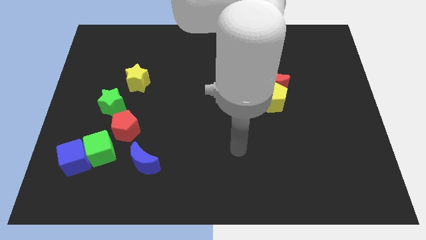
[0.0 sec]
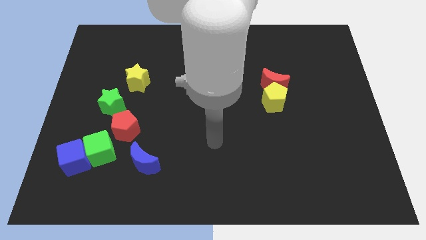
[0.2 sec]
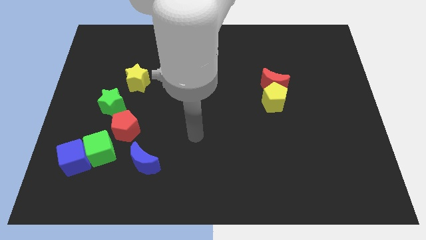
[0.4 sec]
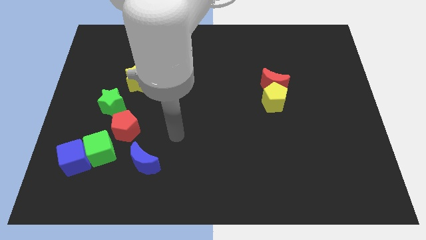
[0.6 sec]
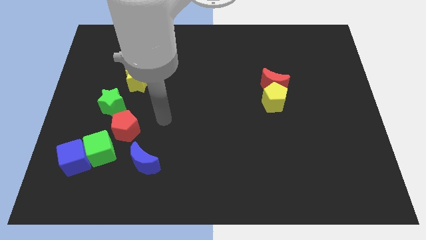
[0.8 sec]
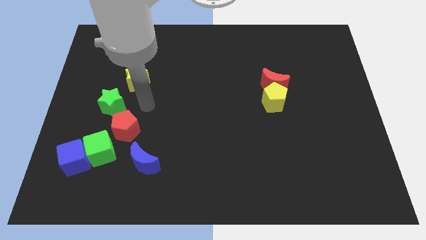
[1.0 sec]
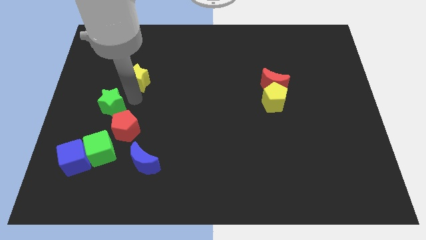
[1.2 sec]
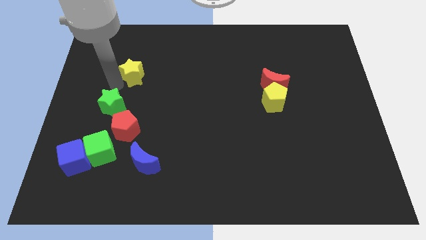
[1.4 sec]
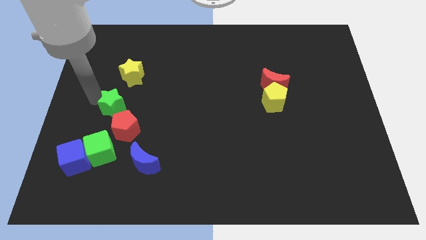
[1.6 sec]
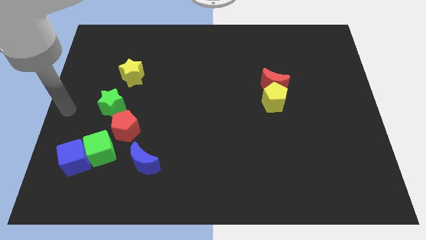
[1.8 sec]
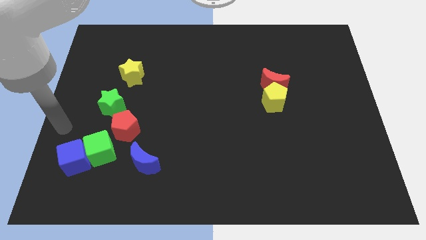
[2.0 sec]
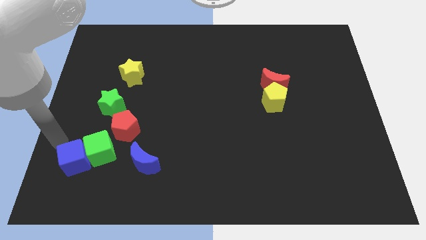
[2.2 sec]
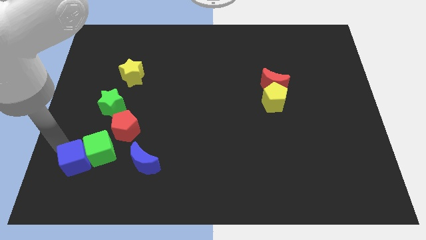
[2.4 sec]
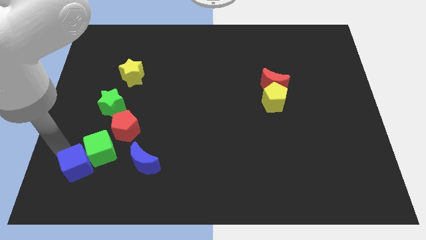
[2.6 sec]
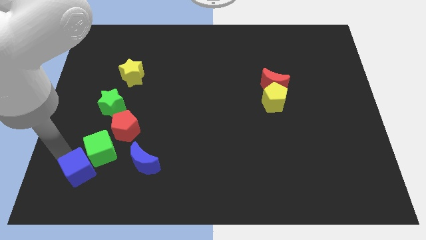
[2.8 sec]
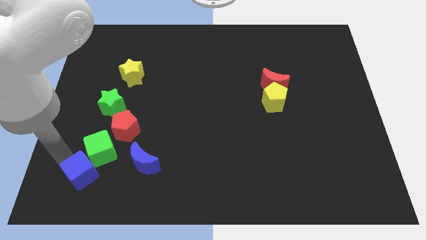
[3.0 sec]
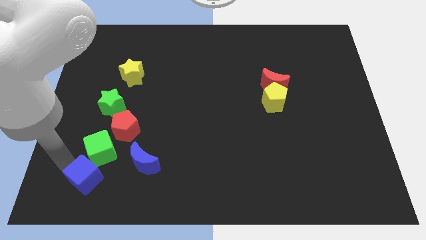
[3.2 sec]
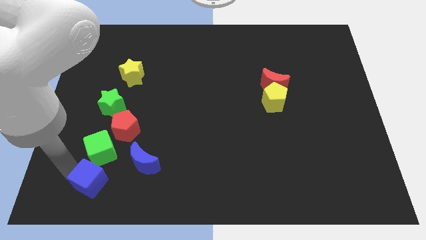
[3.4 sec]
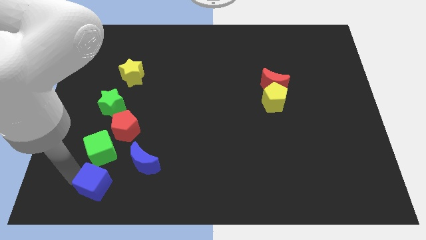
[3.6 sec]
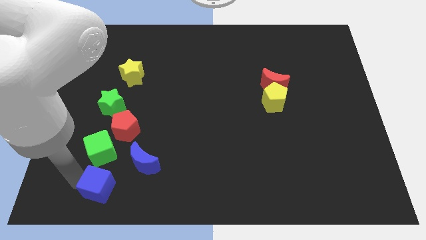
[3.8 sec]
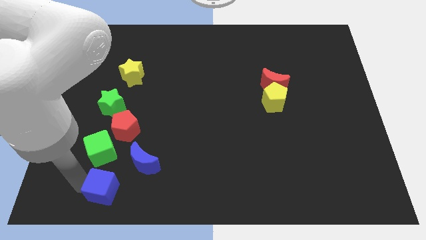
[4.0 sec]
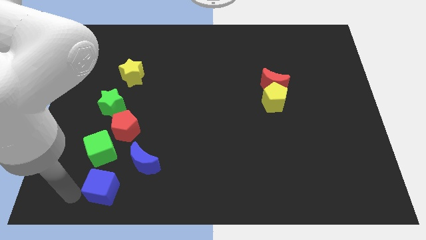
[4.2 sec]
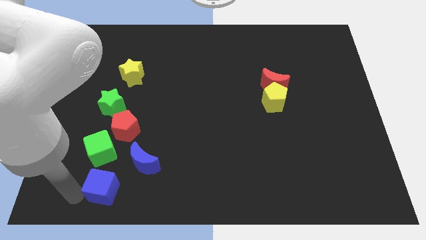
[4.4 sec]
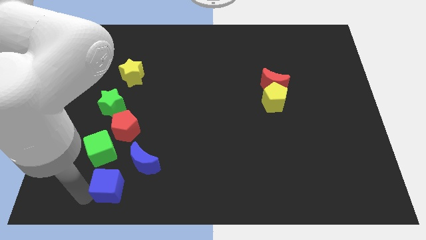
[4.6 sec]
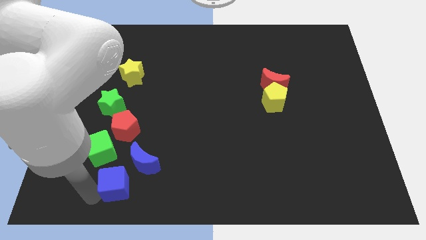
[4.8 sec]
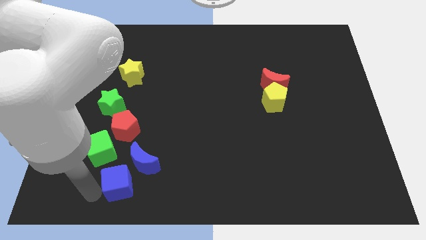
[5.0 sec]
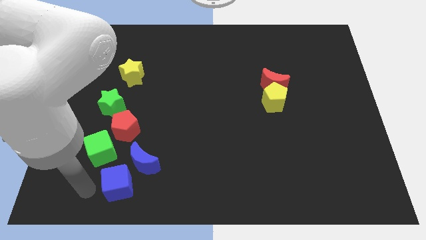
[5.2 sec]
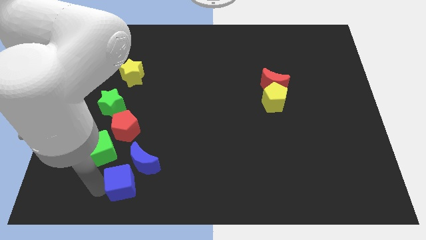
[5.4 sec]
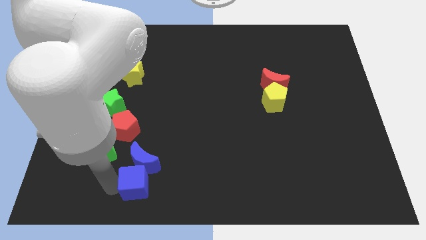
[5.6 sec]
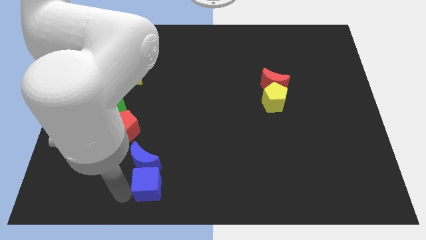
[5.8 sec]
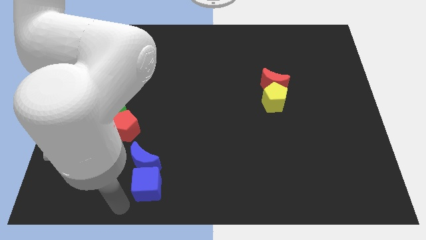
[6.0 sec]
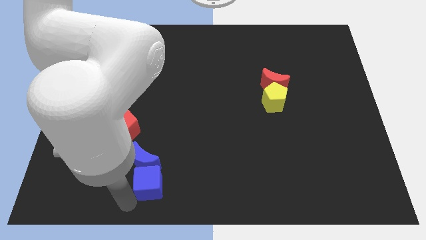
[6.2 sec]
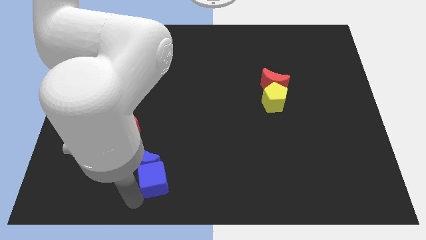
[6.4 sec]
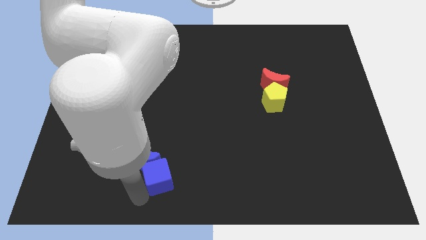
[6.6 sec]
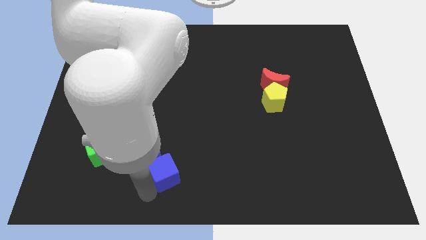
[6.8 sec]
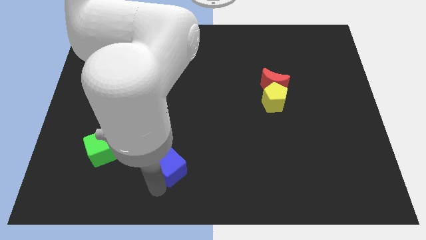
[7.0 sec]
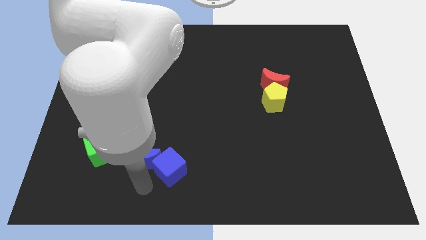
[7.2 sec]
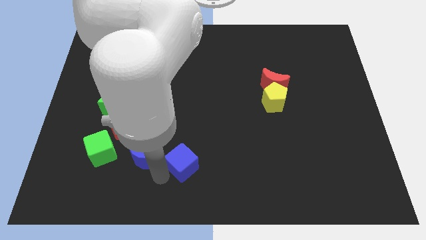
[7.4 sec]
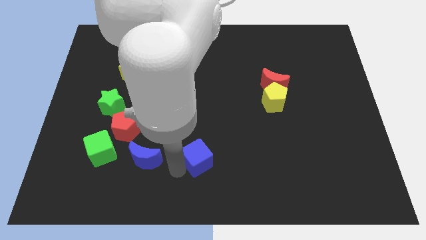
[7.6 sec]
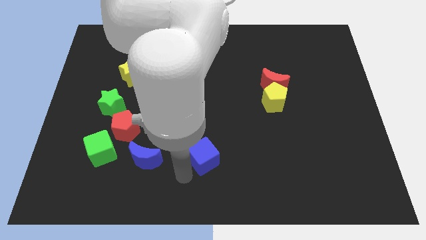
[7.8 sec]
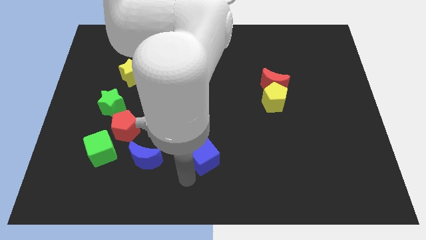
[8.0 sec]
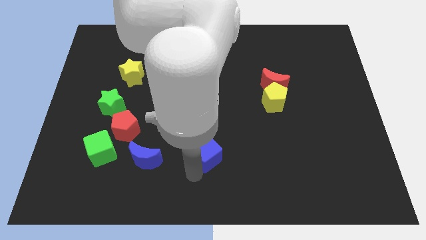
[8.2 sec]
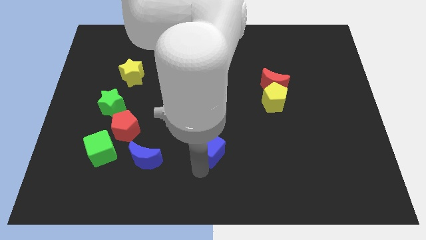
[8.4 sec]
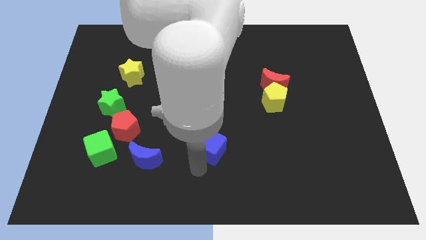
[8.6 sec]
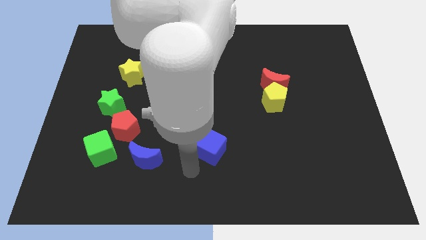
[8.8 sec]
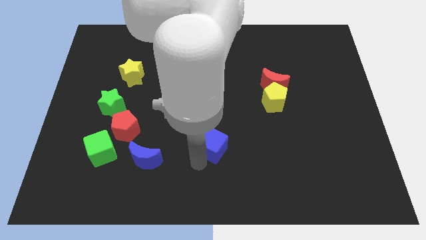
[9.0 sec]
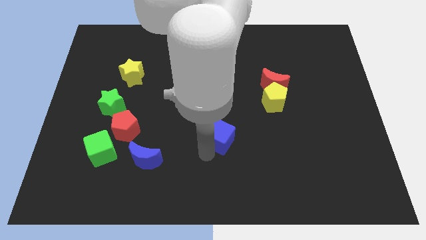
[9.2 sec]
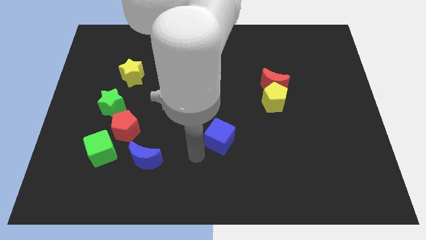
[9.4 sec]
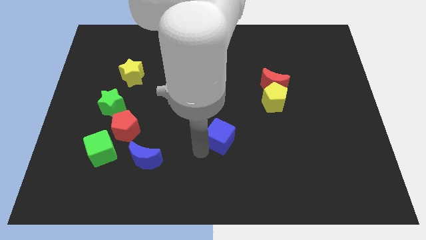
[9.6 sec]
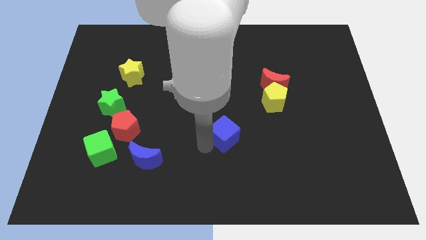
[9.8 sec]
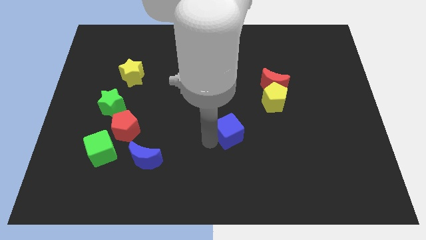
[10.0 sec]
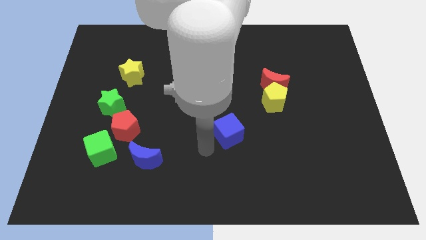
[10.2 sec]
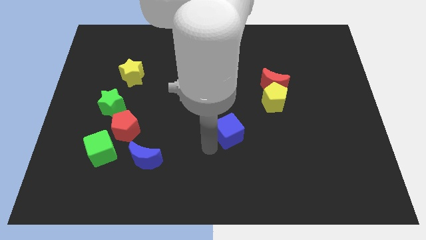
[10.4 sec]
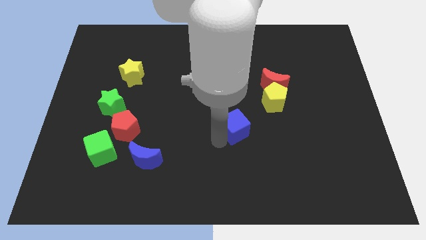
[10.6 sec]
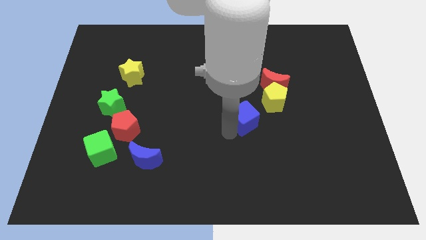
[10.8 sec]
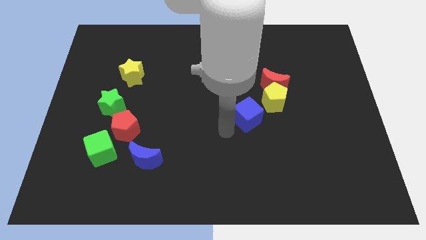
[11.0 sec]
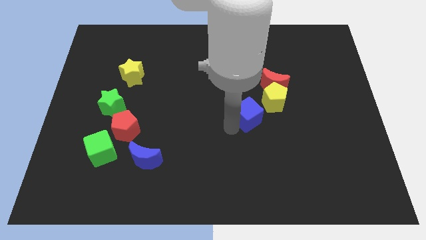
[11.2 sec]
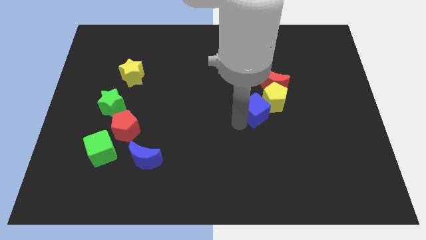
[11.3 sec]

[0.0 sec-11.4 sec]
move the blue cube close to the yellow pentagon

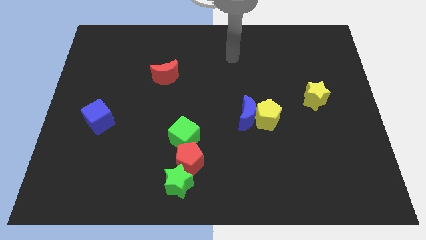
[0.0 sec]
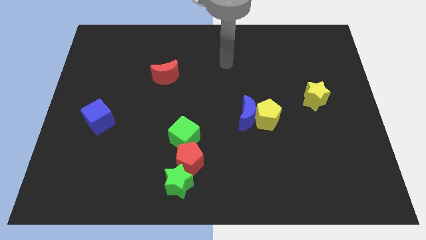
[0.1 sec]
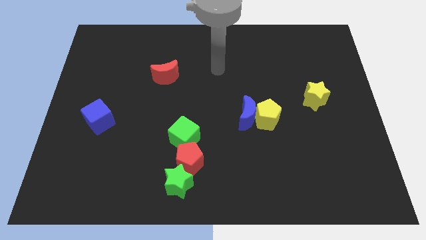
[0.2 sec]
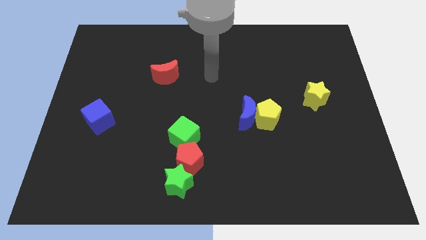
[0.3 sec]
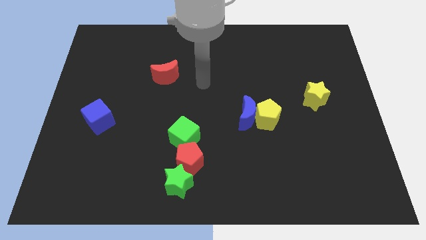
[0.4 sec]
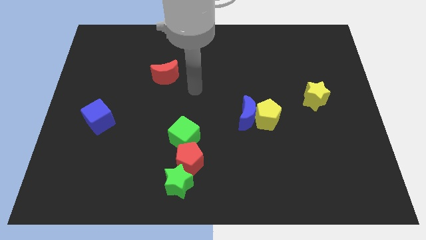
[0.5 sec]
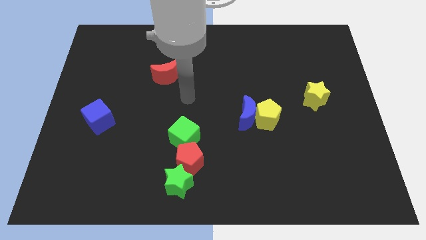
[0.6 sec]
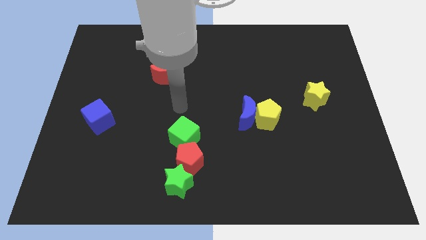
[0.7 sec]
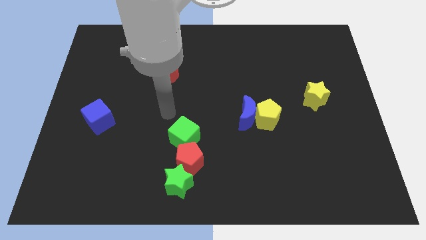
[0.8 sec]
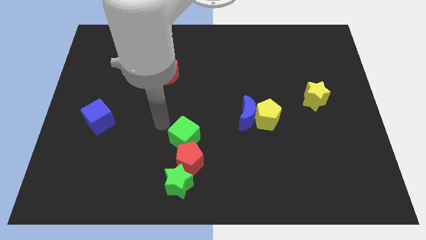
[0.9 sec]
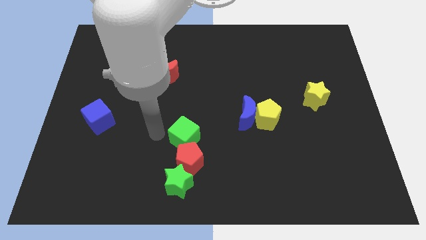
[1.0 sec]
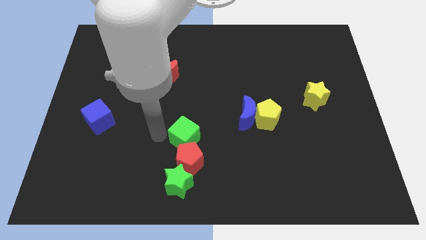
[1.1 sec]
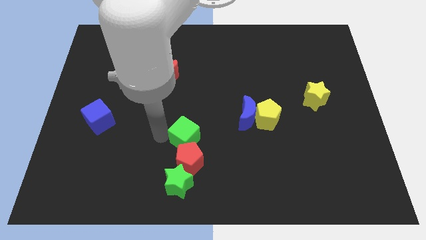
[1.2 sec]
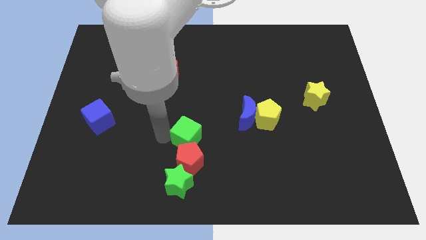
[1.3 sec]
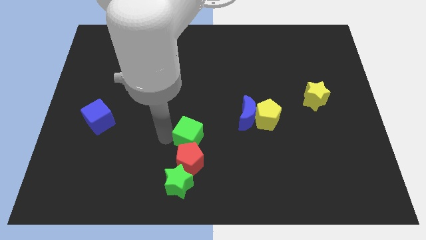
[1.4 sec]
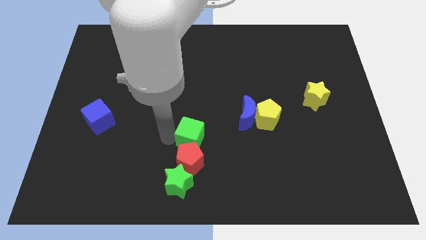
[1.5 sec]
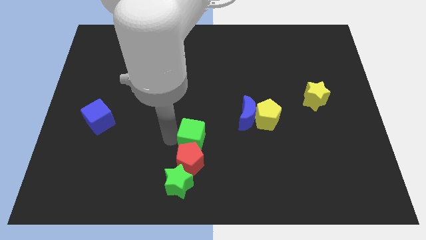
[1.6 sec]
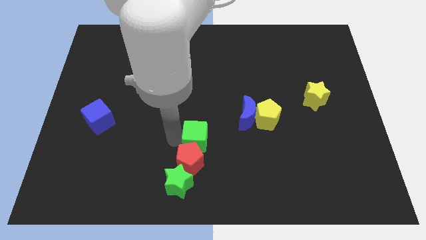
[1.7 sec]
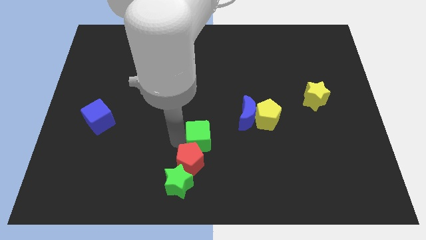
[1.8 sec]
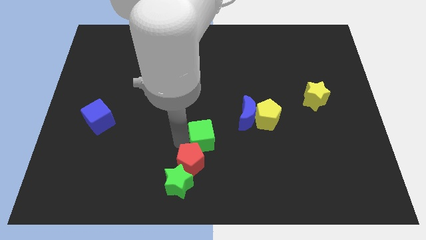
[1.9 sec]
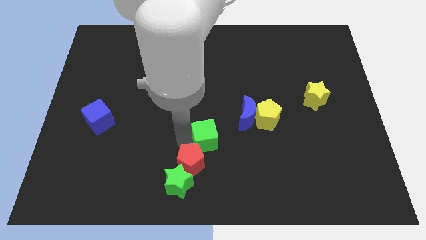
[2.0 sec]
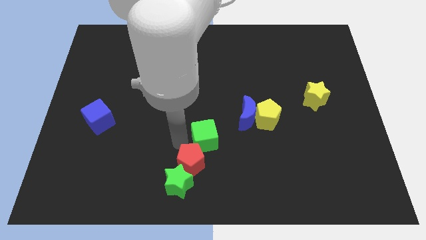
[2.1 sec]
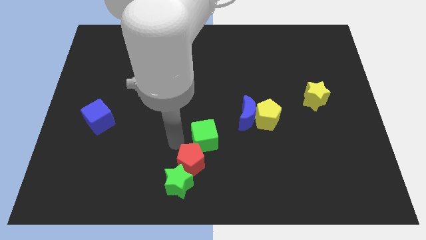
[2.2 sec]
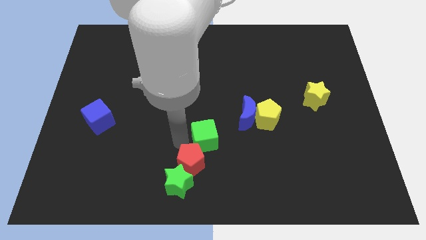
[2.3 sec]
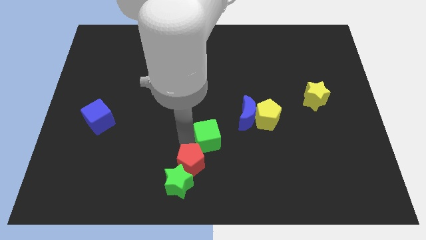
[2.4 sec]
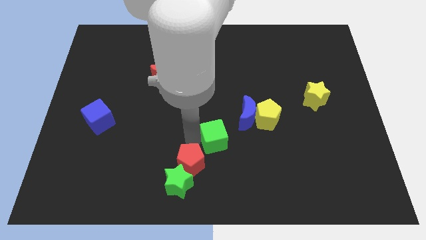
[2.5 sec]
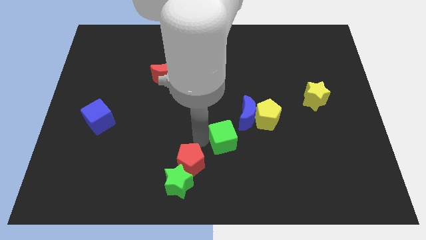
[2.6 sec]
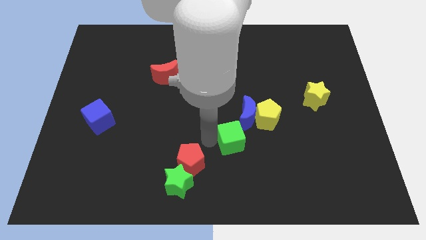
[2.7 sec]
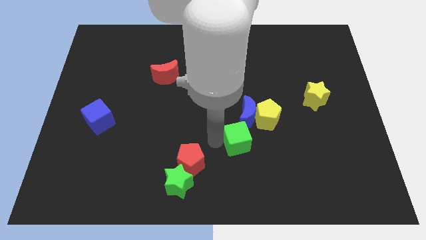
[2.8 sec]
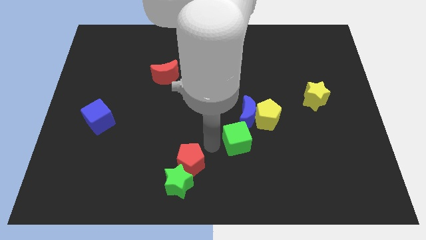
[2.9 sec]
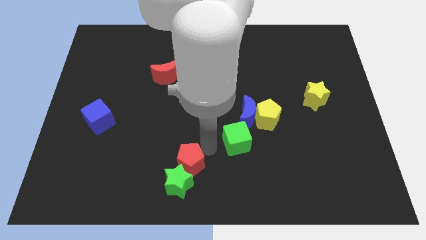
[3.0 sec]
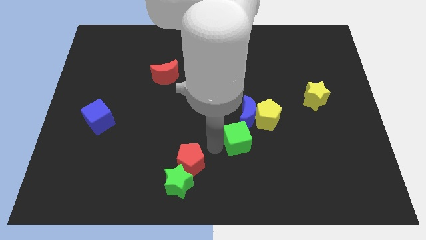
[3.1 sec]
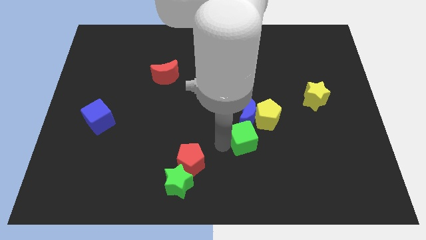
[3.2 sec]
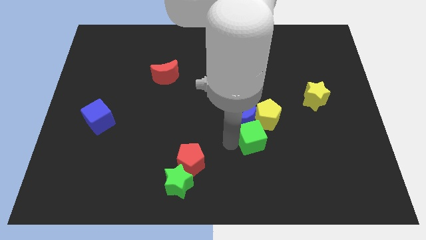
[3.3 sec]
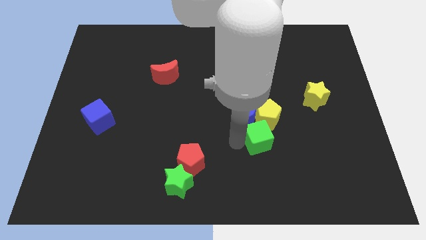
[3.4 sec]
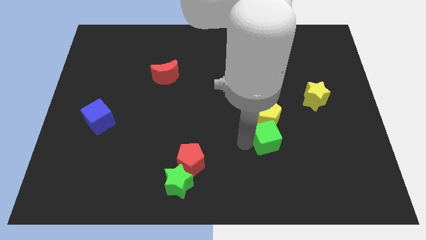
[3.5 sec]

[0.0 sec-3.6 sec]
slide the green cube close to the yellow pentagon
